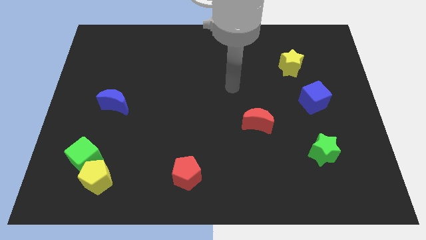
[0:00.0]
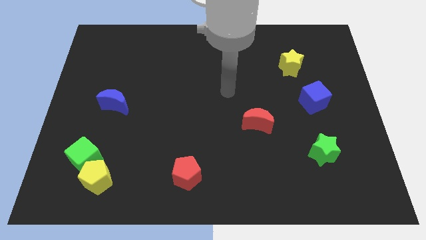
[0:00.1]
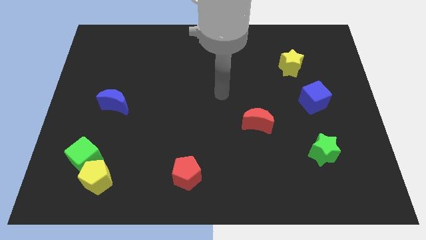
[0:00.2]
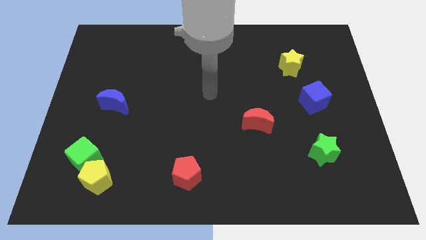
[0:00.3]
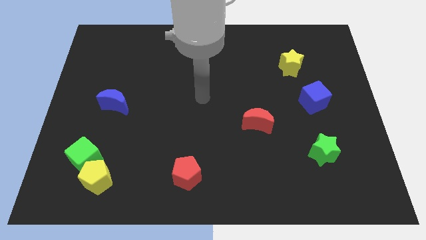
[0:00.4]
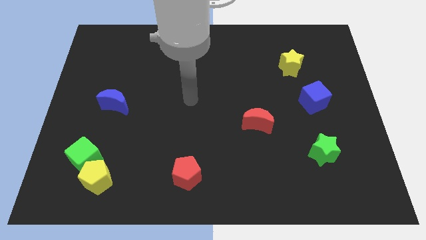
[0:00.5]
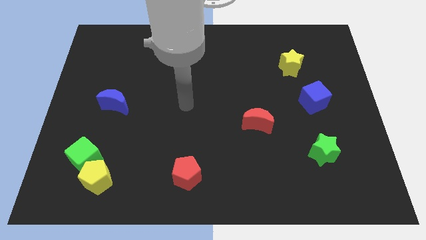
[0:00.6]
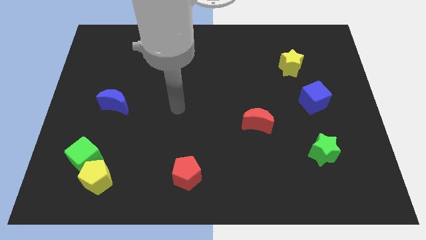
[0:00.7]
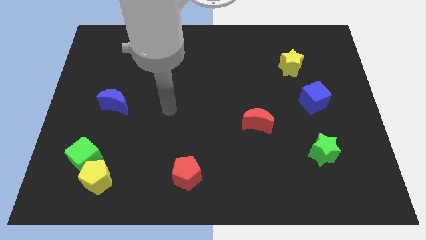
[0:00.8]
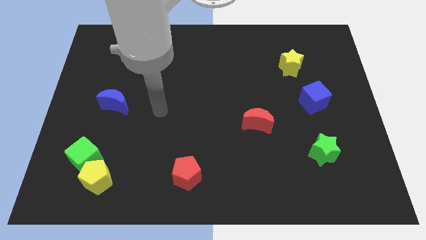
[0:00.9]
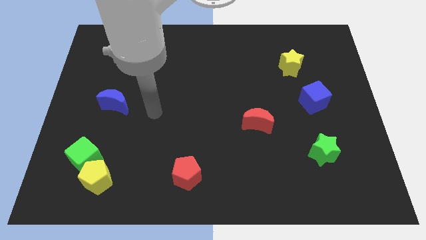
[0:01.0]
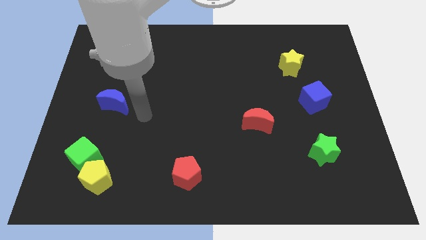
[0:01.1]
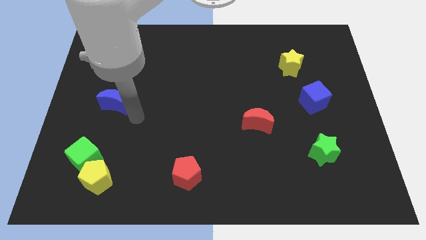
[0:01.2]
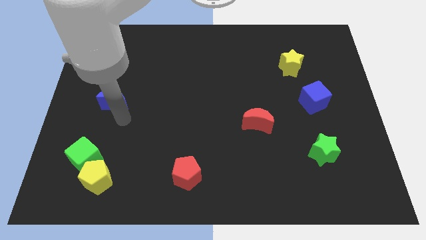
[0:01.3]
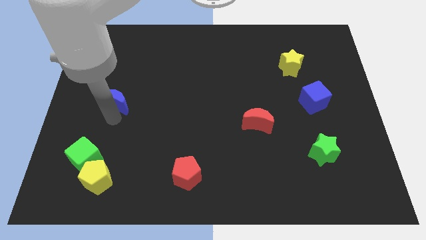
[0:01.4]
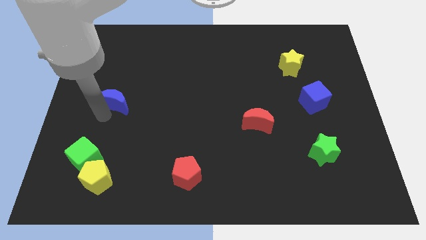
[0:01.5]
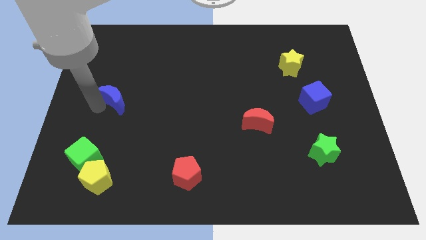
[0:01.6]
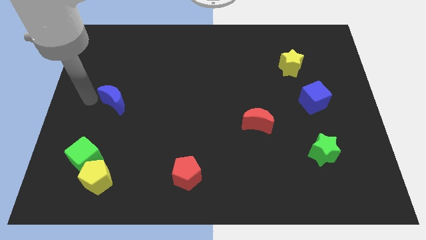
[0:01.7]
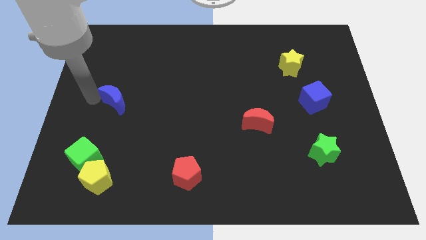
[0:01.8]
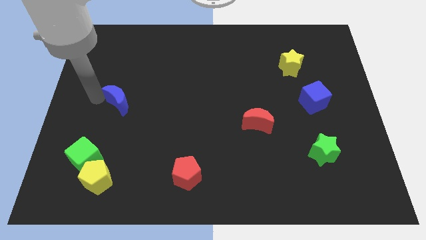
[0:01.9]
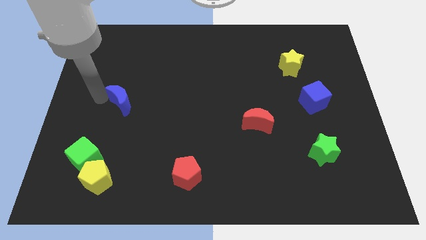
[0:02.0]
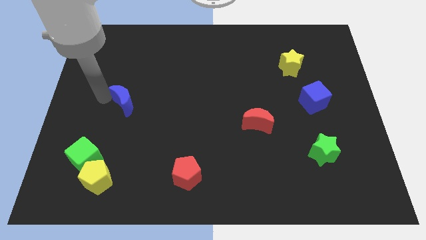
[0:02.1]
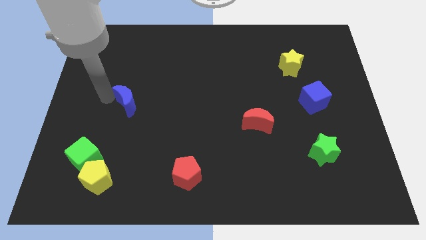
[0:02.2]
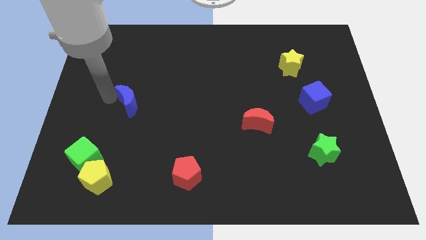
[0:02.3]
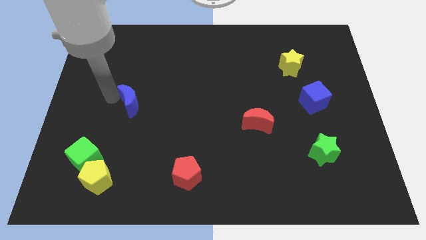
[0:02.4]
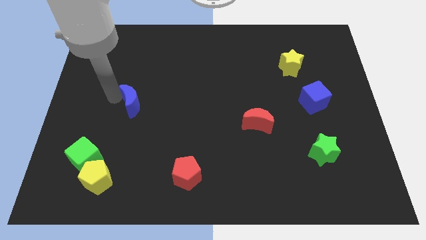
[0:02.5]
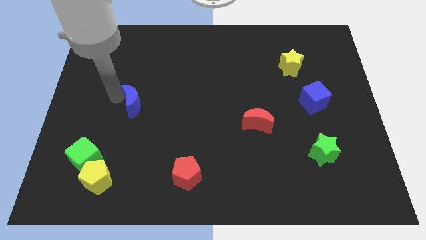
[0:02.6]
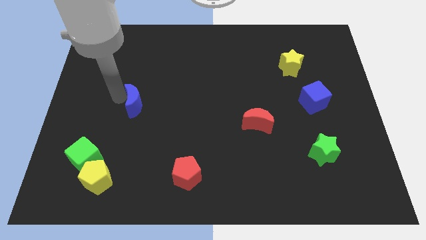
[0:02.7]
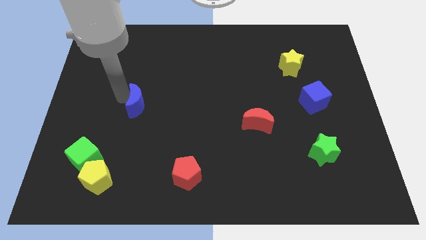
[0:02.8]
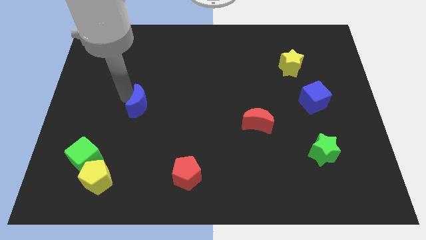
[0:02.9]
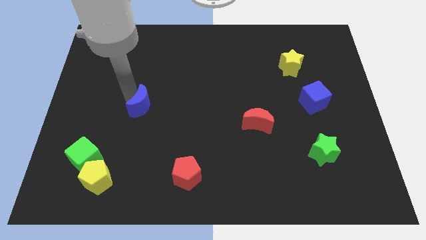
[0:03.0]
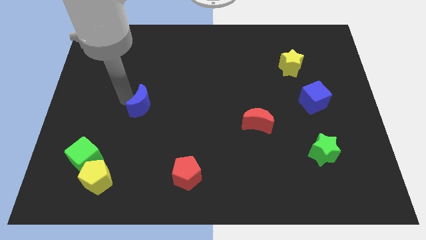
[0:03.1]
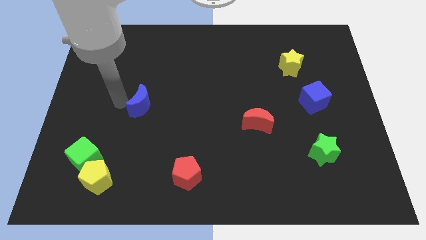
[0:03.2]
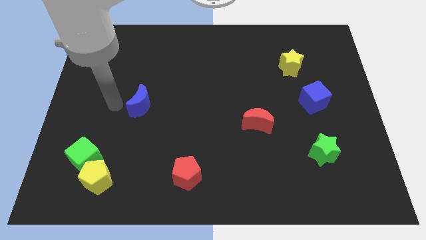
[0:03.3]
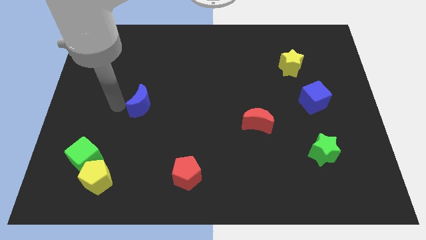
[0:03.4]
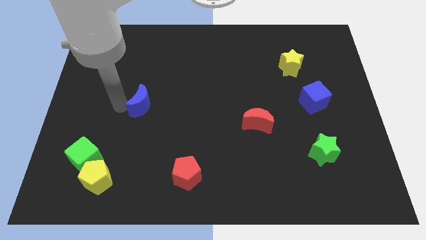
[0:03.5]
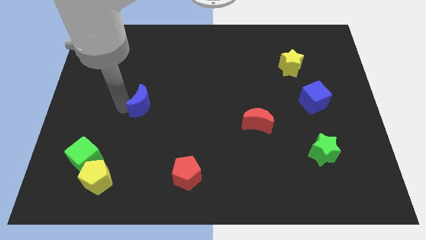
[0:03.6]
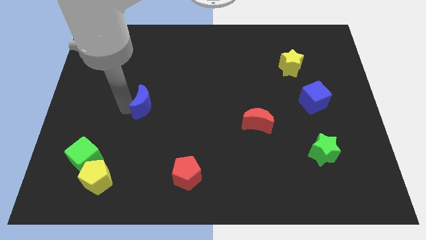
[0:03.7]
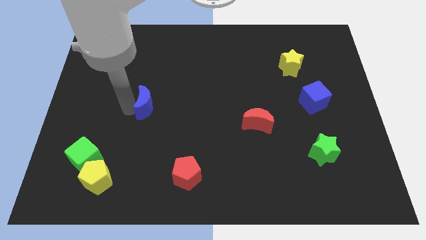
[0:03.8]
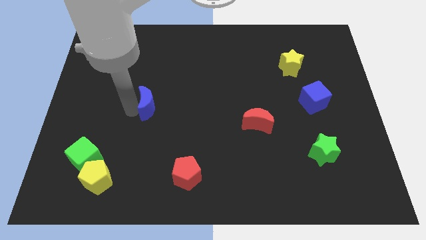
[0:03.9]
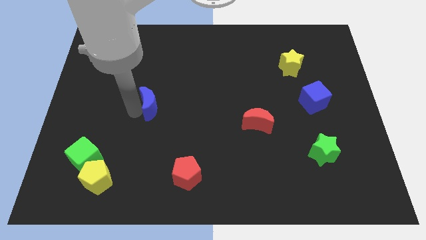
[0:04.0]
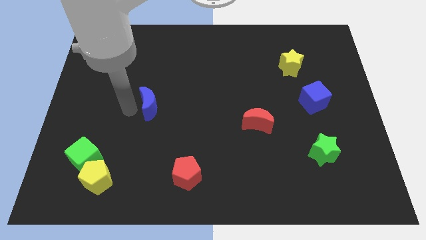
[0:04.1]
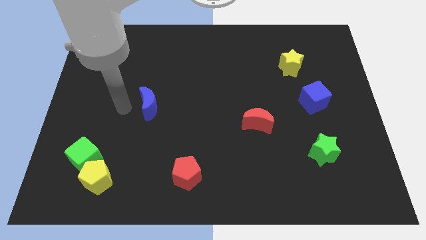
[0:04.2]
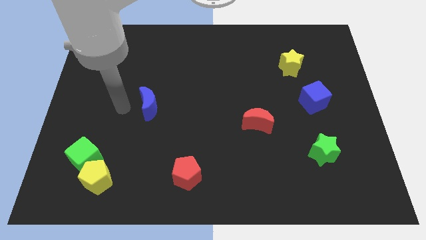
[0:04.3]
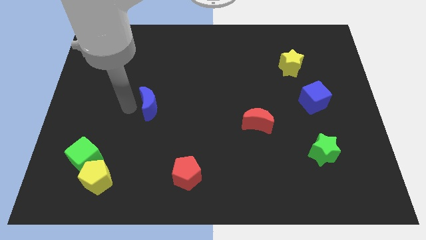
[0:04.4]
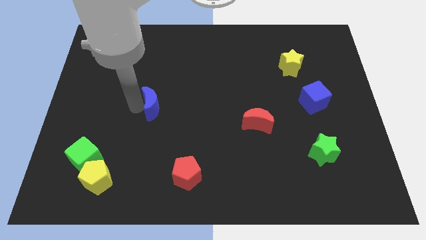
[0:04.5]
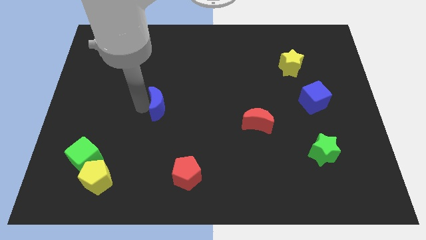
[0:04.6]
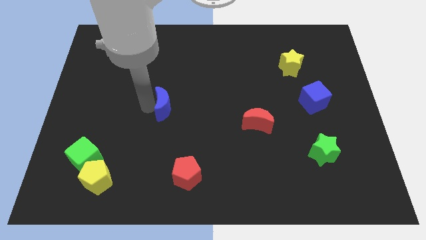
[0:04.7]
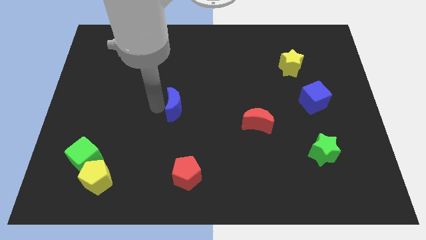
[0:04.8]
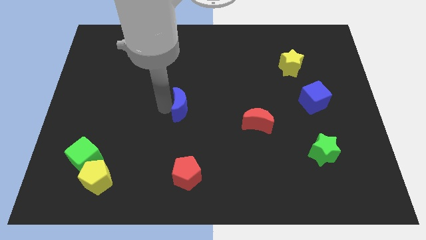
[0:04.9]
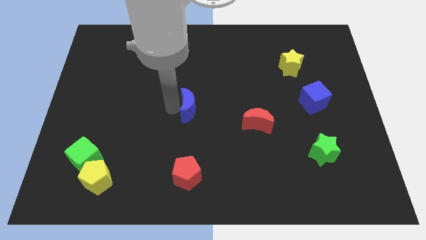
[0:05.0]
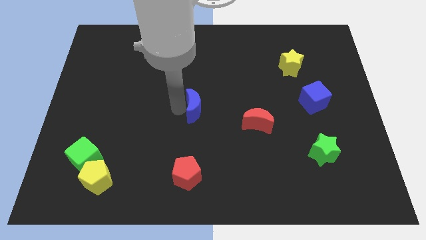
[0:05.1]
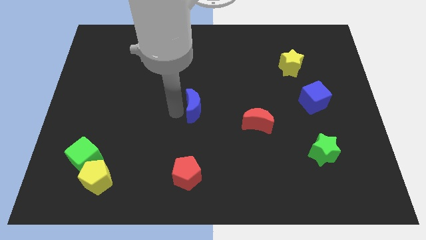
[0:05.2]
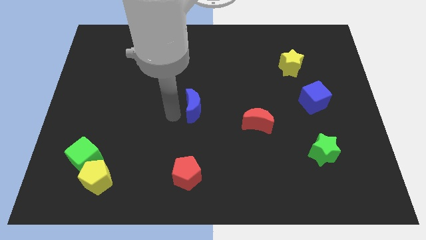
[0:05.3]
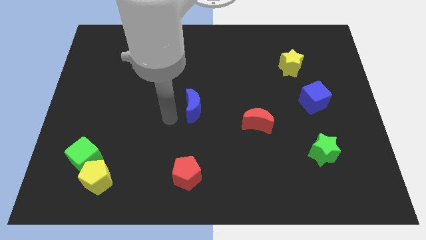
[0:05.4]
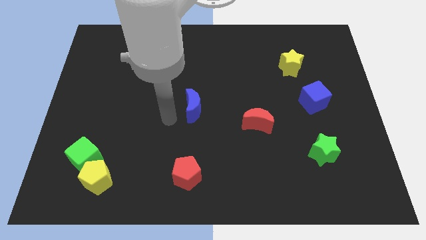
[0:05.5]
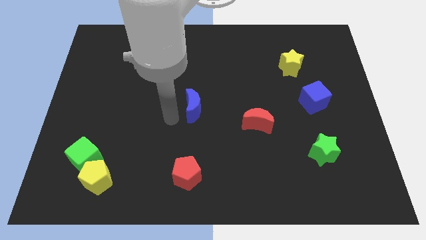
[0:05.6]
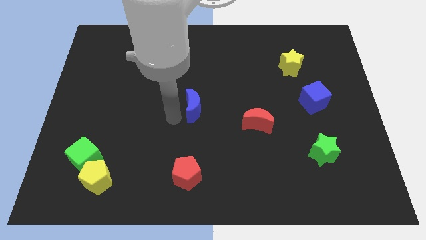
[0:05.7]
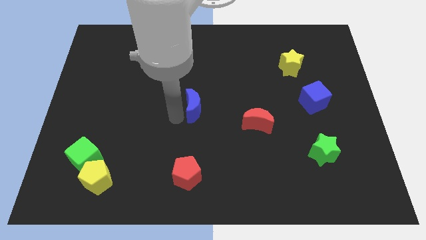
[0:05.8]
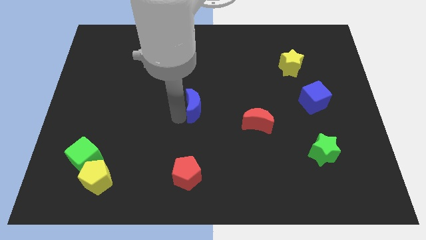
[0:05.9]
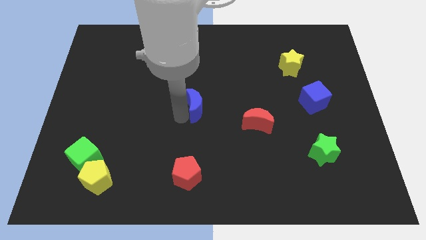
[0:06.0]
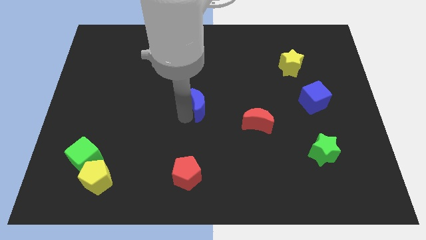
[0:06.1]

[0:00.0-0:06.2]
push the blue moon right

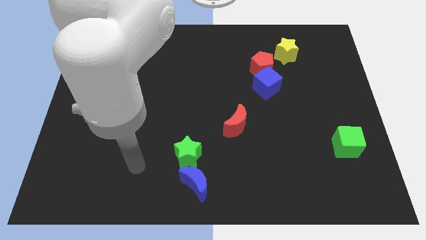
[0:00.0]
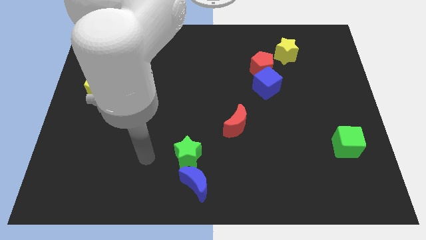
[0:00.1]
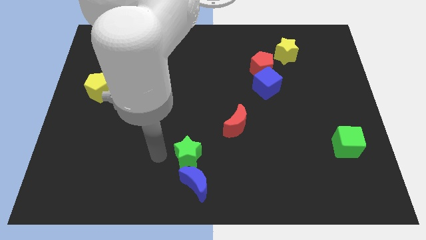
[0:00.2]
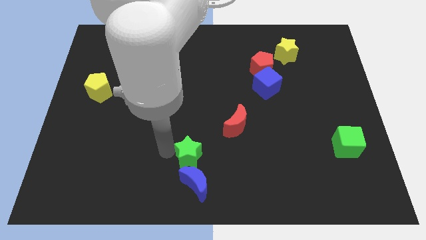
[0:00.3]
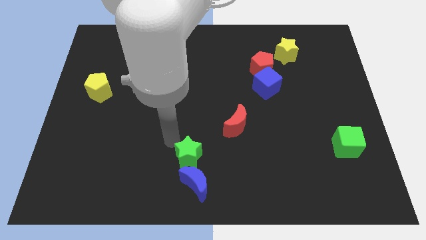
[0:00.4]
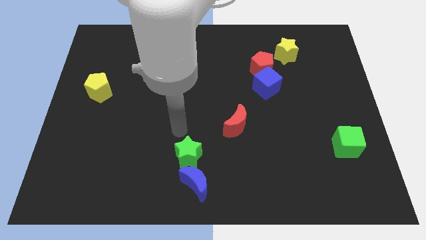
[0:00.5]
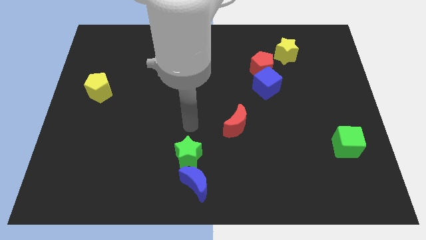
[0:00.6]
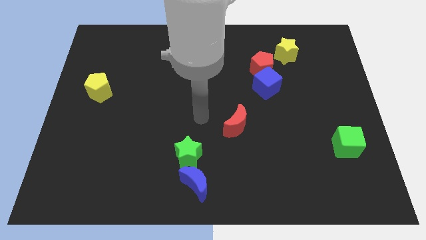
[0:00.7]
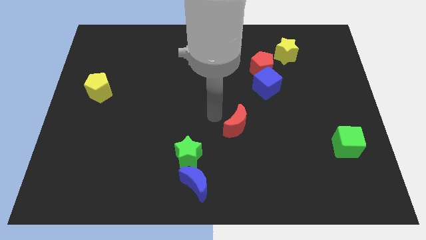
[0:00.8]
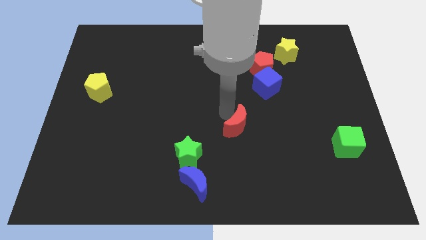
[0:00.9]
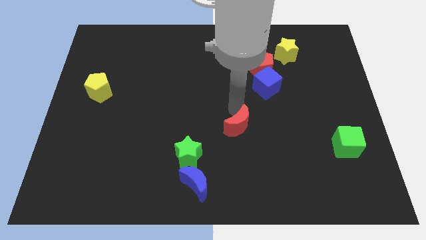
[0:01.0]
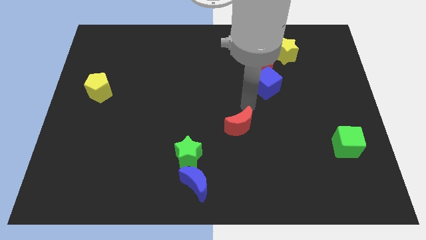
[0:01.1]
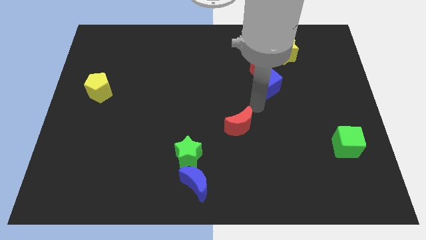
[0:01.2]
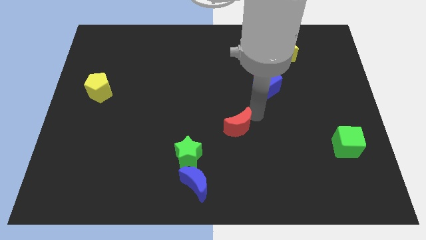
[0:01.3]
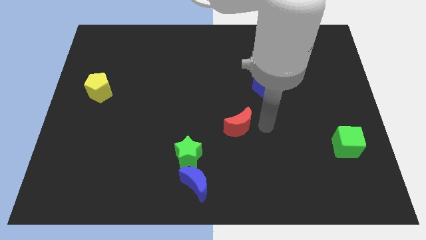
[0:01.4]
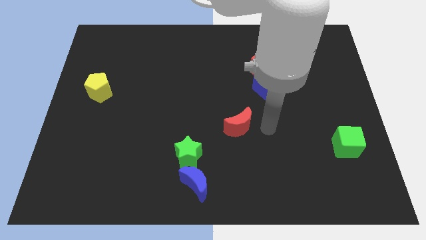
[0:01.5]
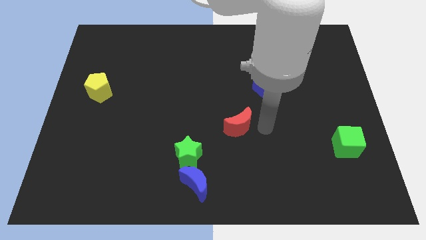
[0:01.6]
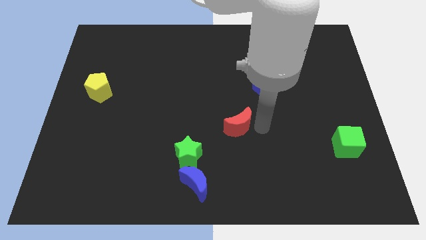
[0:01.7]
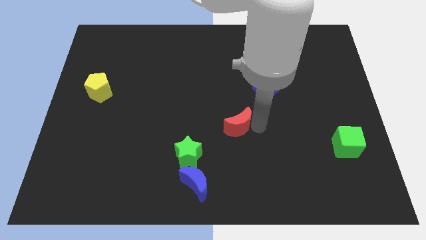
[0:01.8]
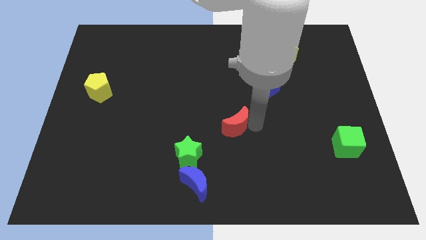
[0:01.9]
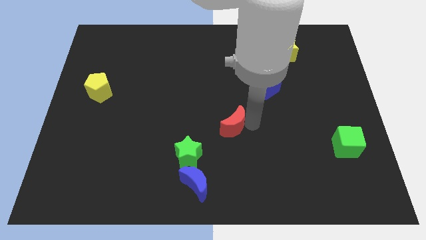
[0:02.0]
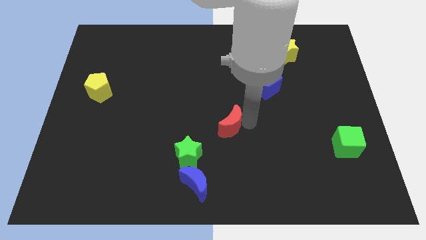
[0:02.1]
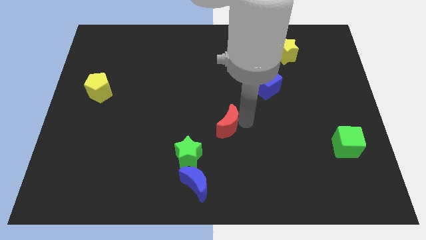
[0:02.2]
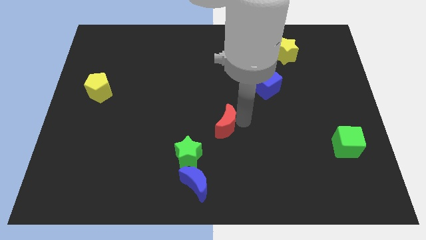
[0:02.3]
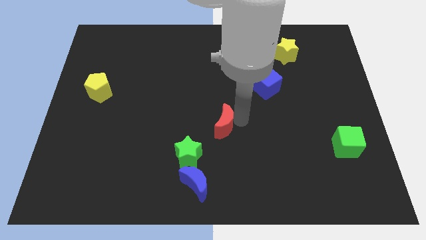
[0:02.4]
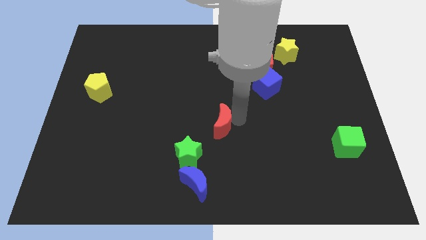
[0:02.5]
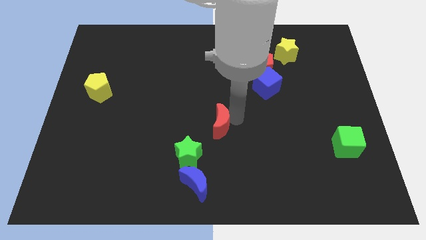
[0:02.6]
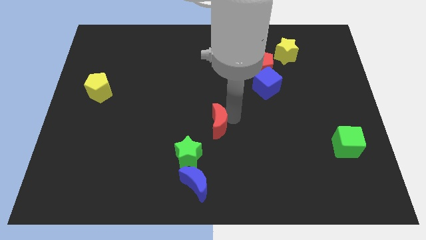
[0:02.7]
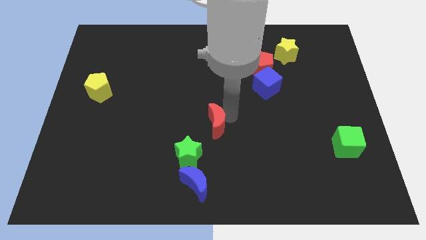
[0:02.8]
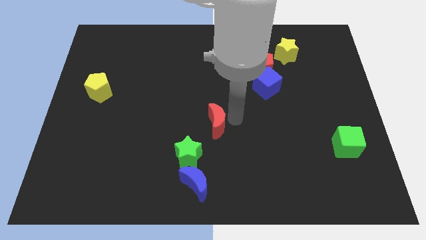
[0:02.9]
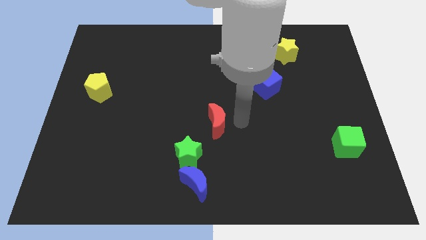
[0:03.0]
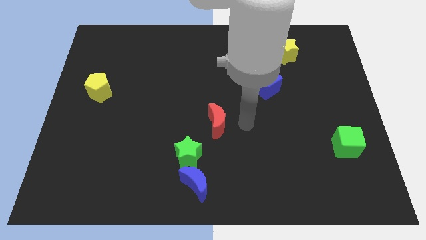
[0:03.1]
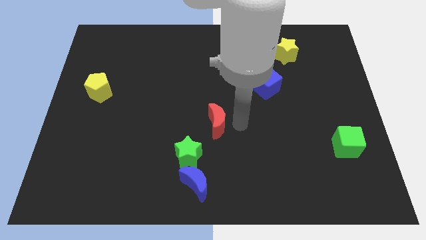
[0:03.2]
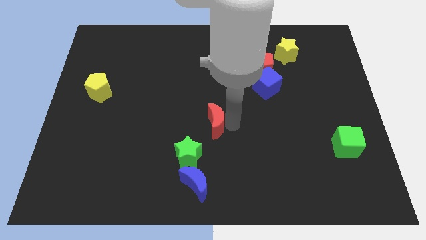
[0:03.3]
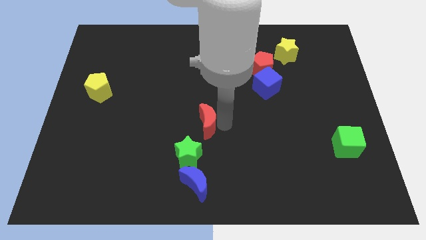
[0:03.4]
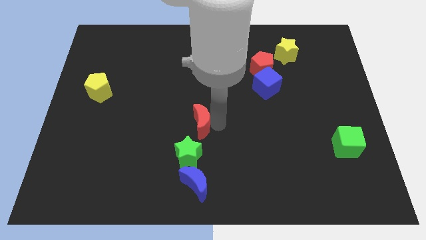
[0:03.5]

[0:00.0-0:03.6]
push the red moon a bit to the left
